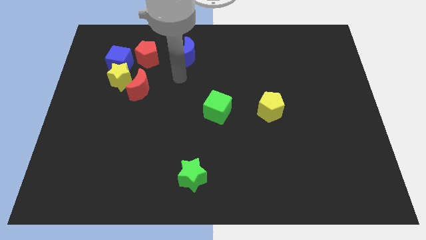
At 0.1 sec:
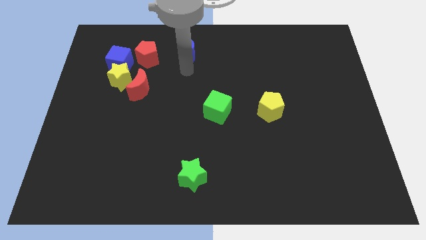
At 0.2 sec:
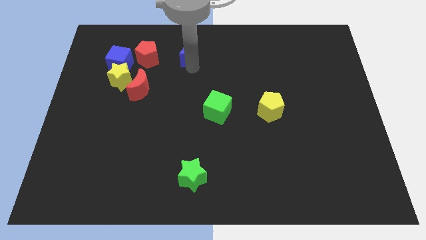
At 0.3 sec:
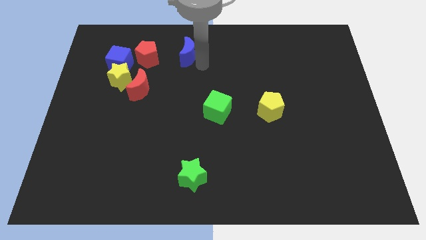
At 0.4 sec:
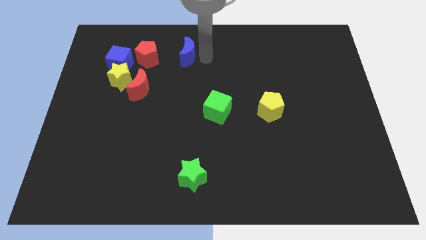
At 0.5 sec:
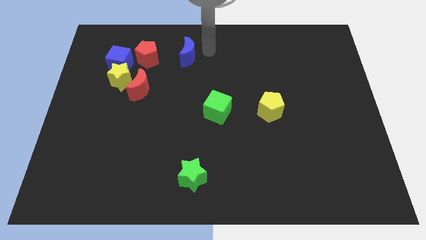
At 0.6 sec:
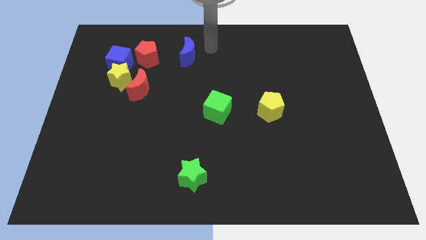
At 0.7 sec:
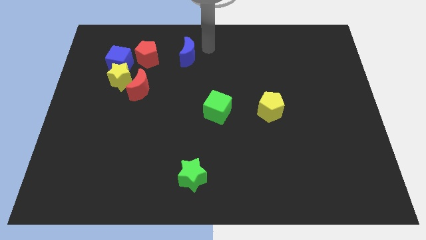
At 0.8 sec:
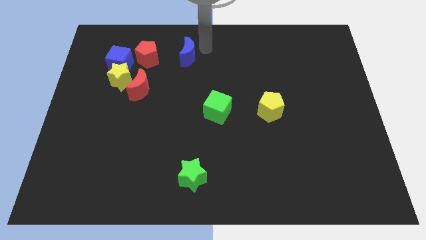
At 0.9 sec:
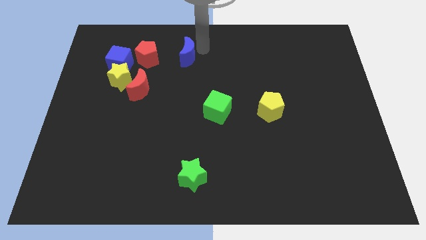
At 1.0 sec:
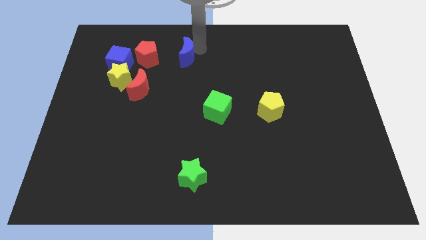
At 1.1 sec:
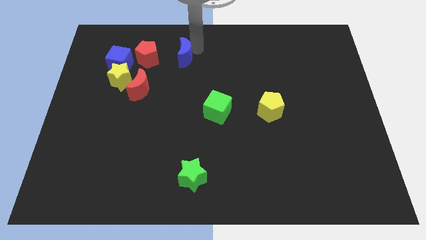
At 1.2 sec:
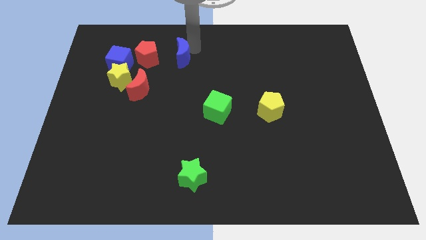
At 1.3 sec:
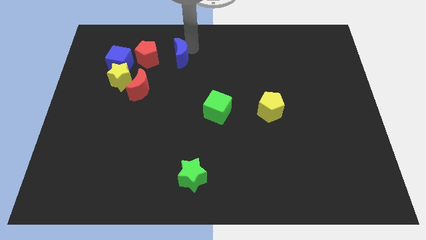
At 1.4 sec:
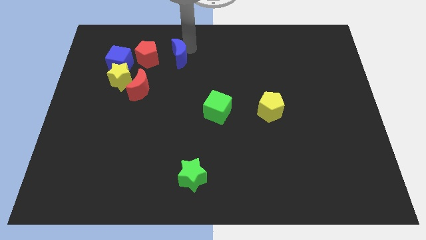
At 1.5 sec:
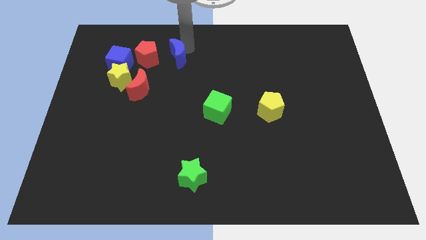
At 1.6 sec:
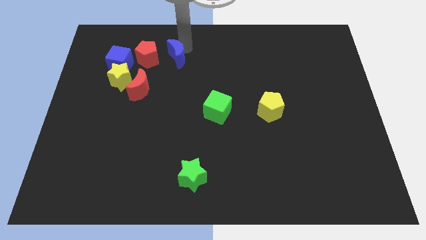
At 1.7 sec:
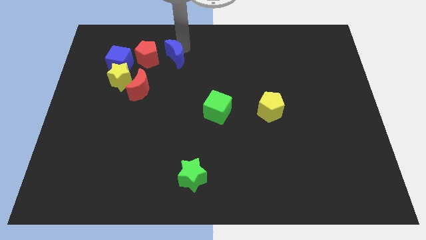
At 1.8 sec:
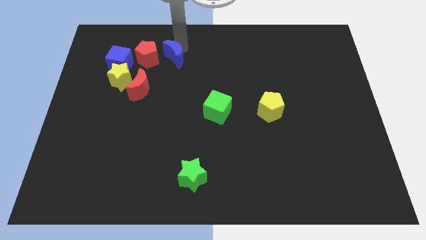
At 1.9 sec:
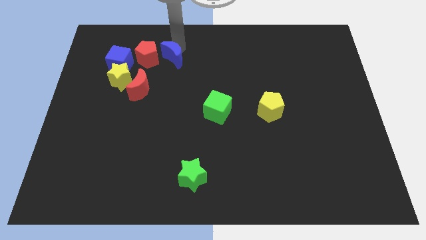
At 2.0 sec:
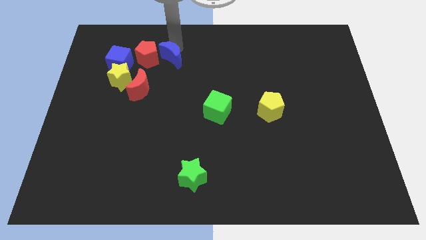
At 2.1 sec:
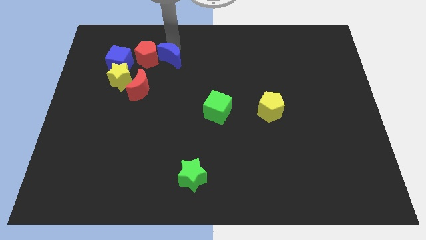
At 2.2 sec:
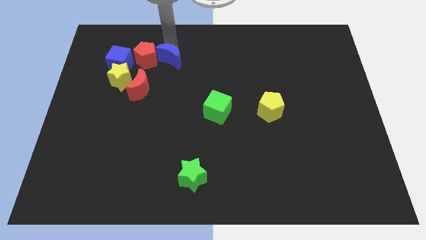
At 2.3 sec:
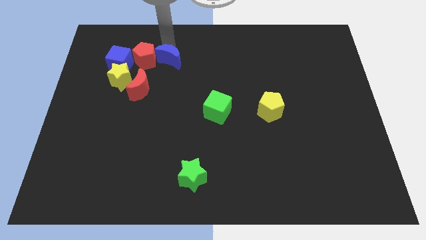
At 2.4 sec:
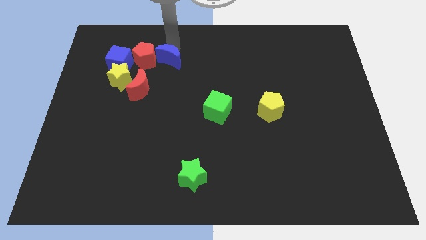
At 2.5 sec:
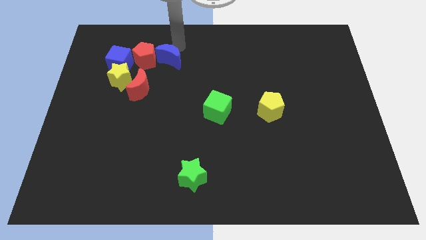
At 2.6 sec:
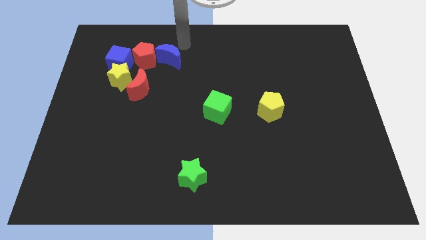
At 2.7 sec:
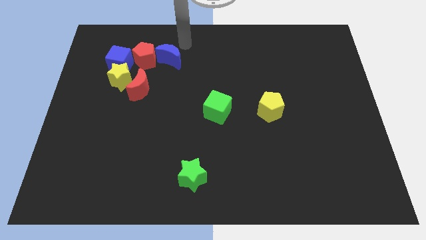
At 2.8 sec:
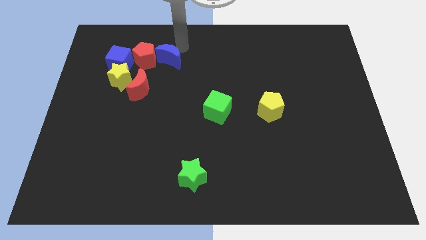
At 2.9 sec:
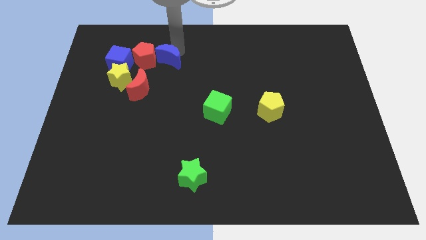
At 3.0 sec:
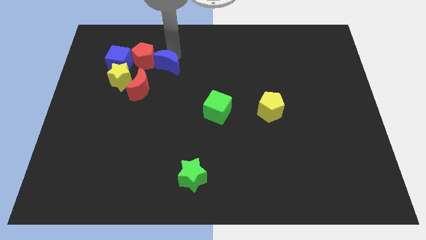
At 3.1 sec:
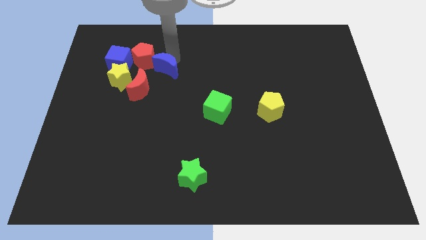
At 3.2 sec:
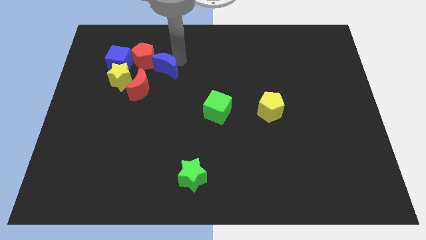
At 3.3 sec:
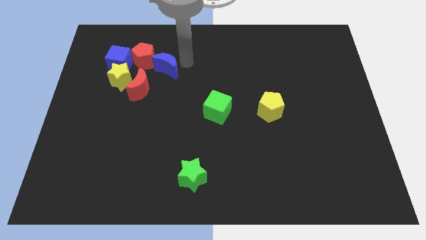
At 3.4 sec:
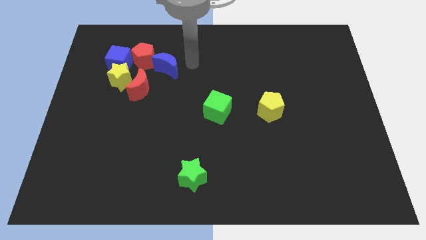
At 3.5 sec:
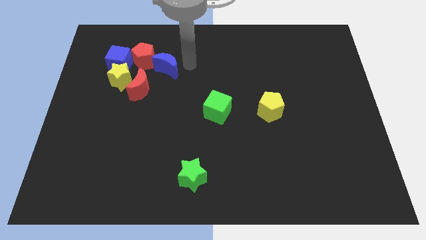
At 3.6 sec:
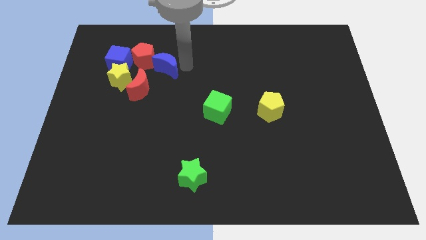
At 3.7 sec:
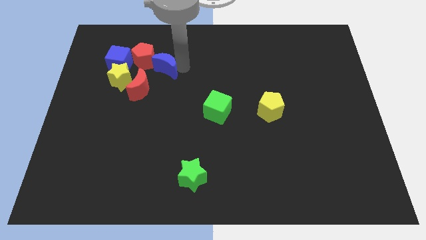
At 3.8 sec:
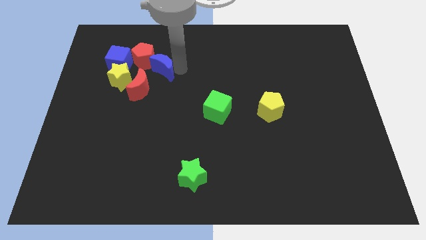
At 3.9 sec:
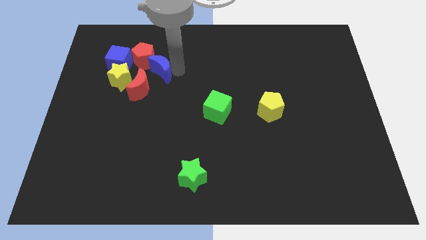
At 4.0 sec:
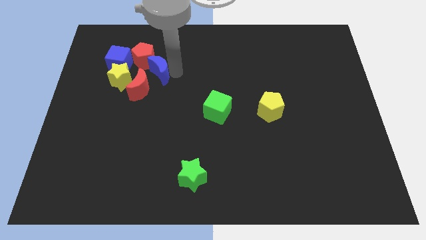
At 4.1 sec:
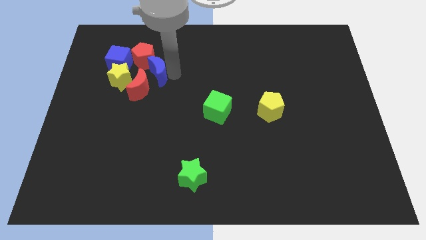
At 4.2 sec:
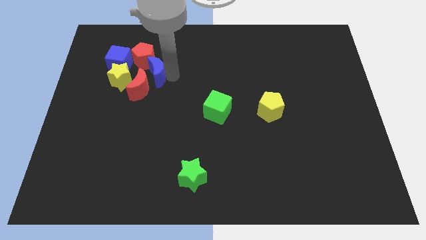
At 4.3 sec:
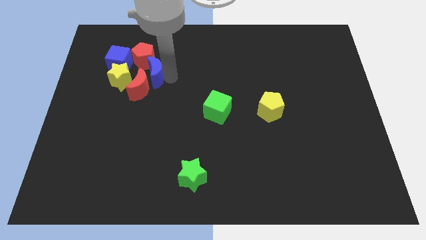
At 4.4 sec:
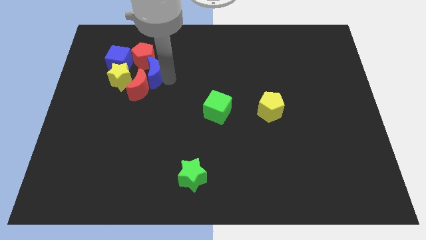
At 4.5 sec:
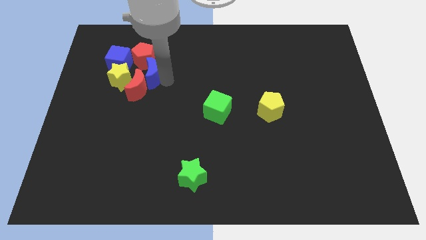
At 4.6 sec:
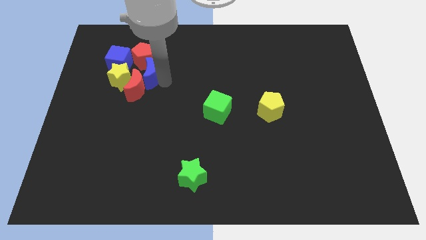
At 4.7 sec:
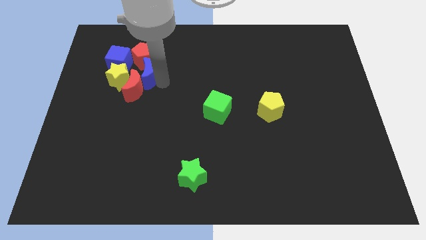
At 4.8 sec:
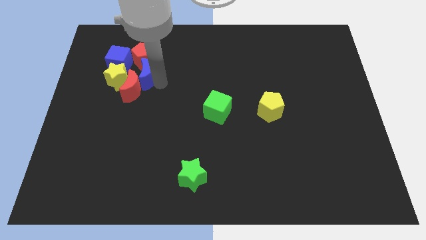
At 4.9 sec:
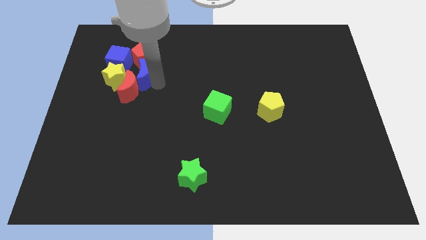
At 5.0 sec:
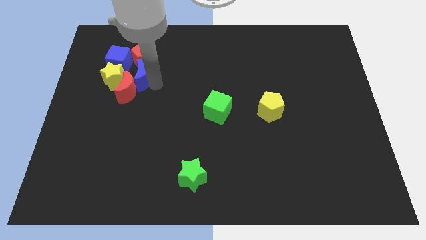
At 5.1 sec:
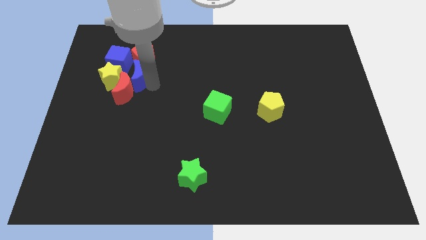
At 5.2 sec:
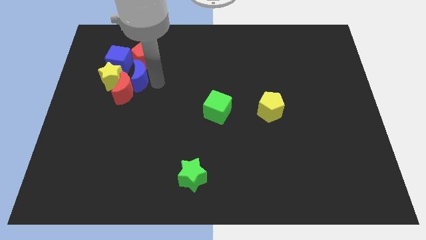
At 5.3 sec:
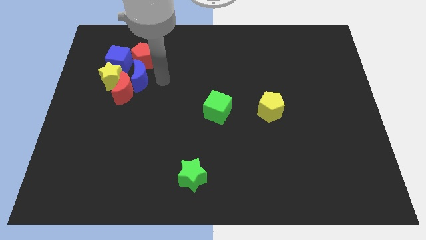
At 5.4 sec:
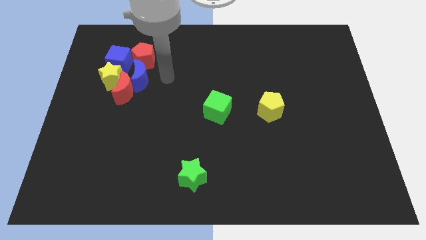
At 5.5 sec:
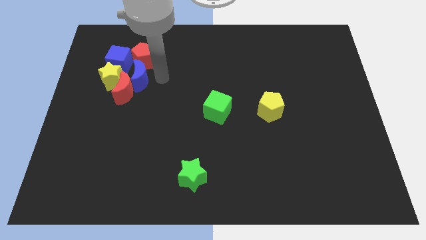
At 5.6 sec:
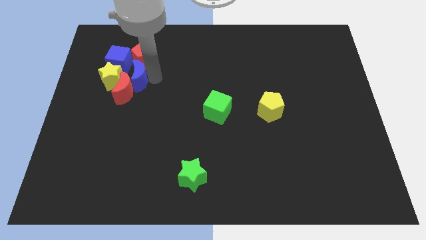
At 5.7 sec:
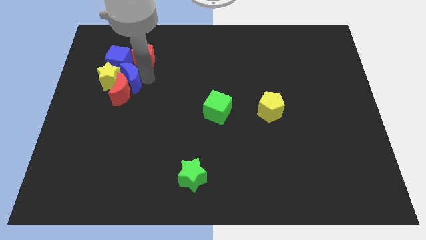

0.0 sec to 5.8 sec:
slide the blue moon next to the yellow star

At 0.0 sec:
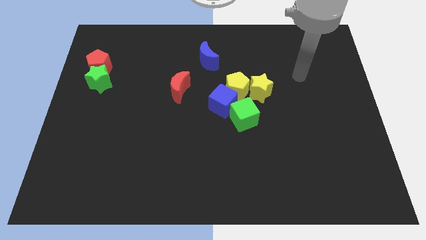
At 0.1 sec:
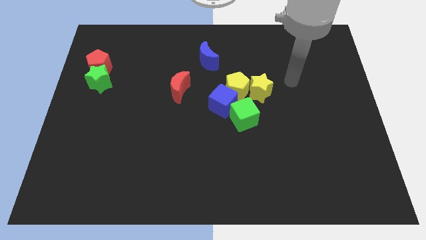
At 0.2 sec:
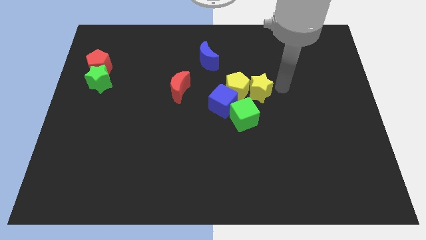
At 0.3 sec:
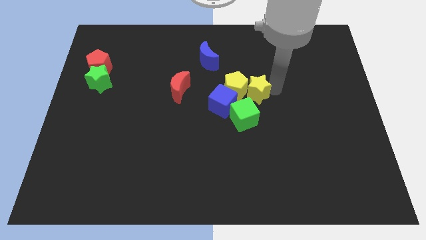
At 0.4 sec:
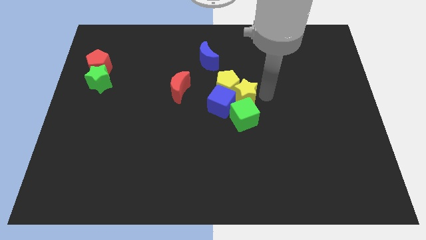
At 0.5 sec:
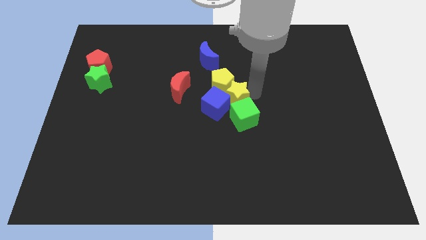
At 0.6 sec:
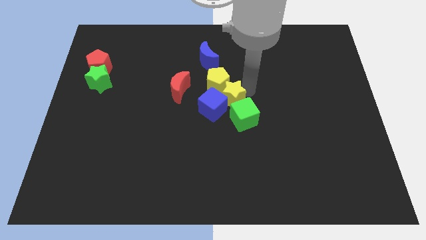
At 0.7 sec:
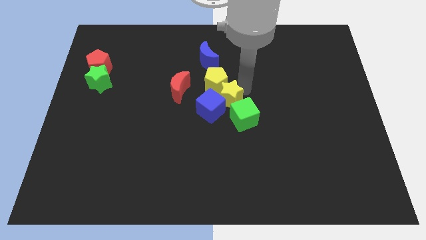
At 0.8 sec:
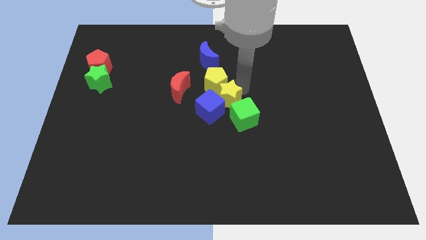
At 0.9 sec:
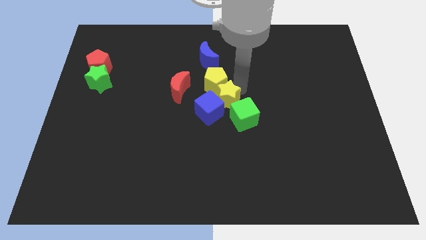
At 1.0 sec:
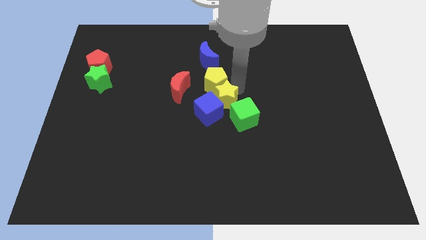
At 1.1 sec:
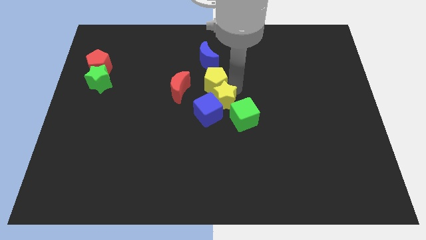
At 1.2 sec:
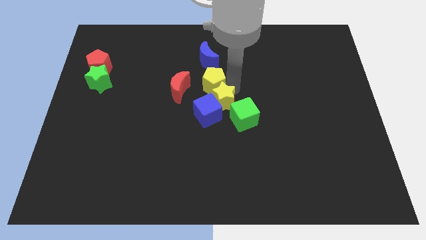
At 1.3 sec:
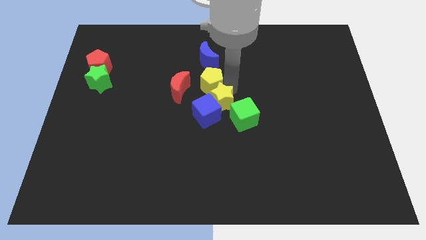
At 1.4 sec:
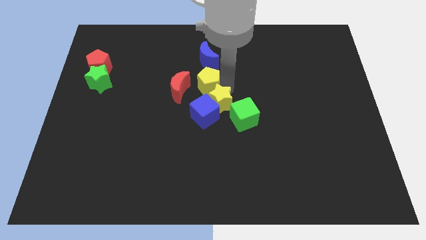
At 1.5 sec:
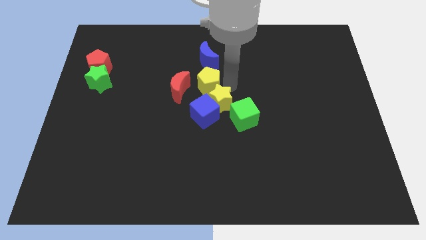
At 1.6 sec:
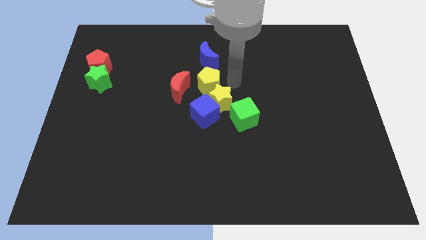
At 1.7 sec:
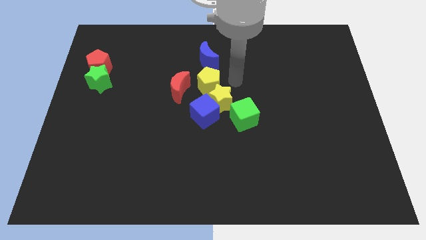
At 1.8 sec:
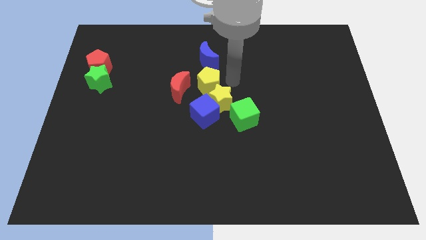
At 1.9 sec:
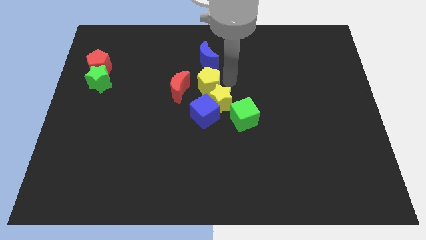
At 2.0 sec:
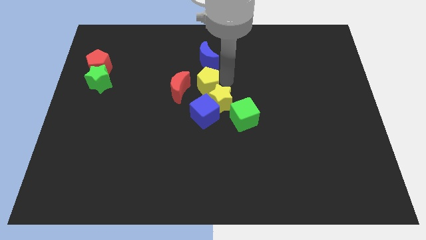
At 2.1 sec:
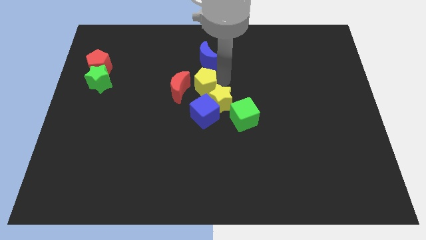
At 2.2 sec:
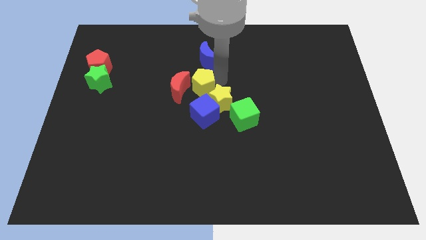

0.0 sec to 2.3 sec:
slide the yellow pentagon to the red moon
